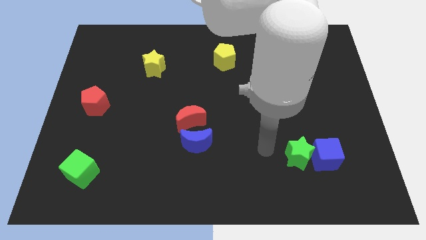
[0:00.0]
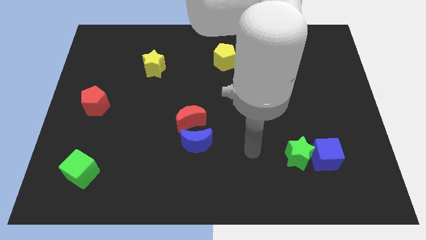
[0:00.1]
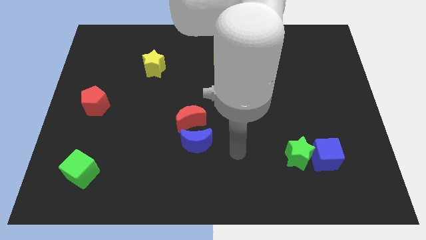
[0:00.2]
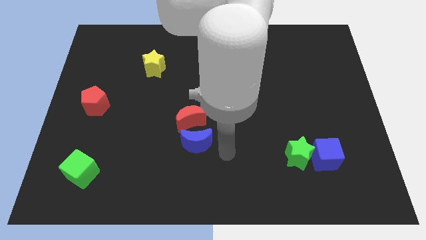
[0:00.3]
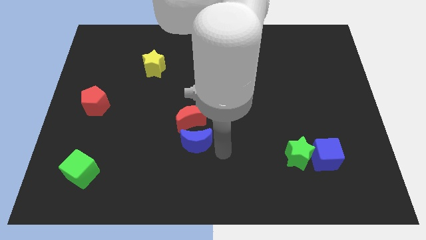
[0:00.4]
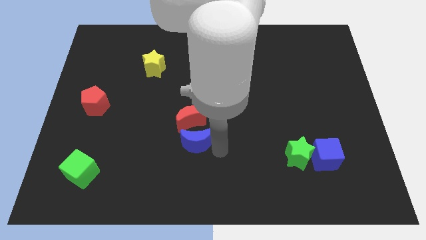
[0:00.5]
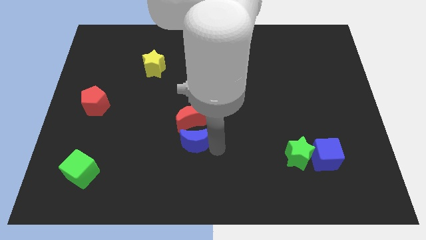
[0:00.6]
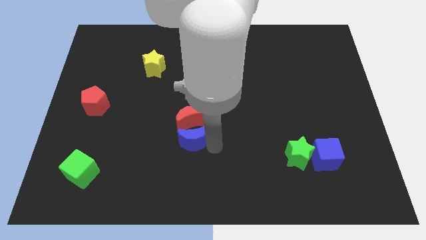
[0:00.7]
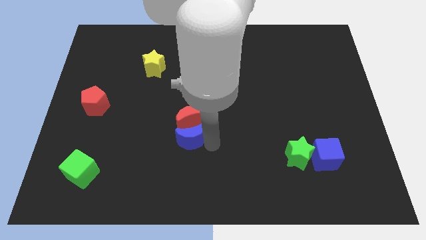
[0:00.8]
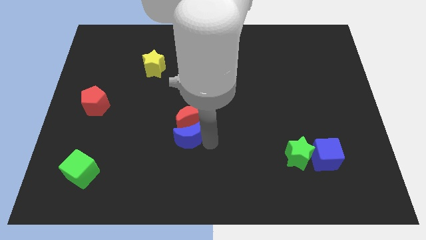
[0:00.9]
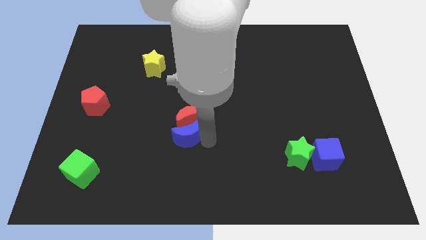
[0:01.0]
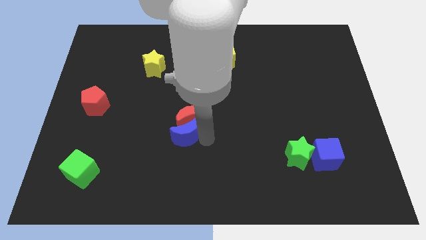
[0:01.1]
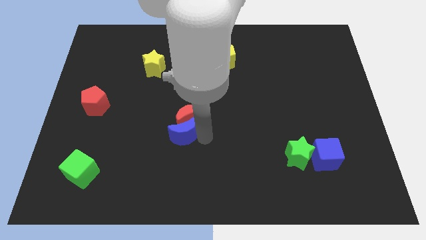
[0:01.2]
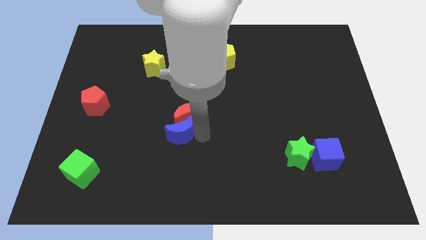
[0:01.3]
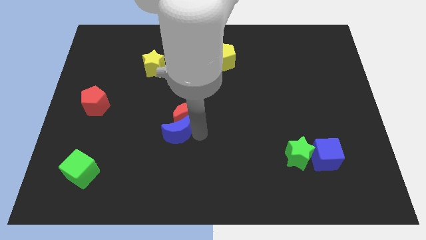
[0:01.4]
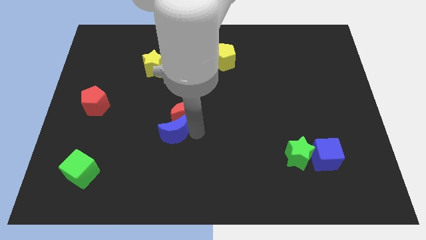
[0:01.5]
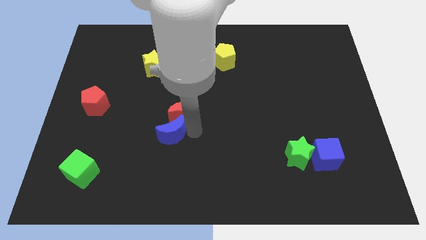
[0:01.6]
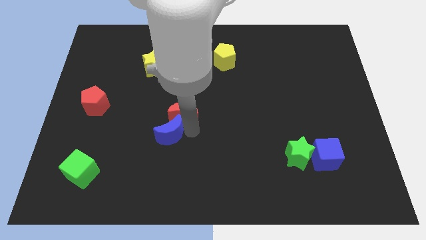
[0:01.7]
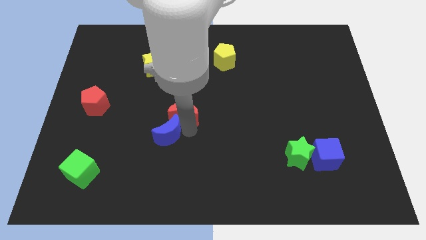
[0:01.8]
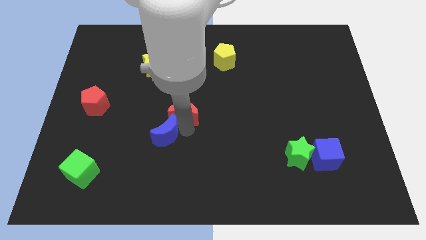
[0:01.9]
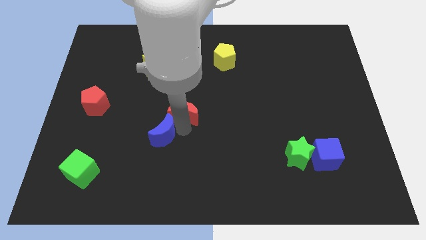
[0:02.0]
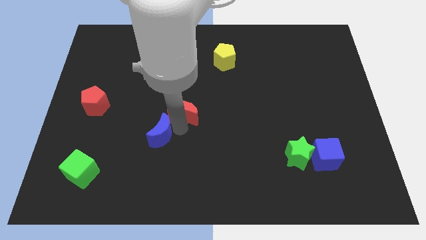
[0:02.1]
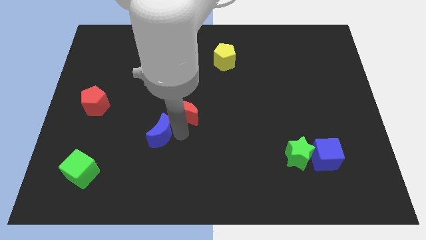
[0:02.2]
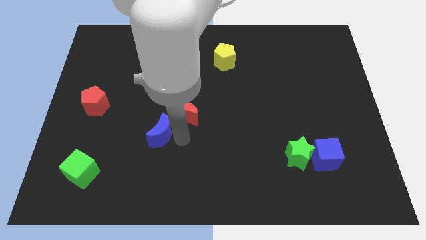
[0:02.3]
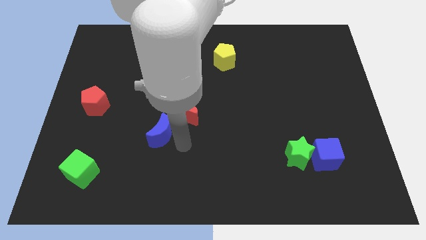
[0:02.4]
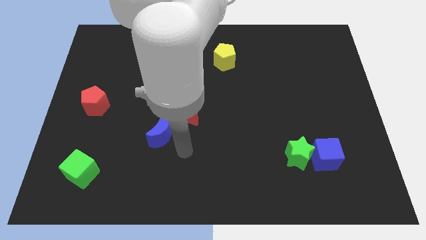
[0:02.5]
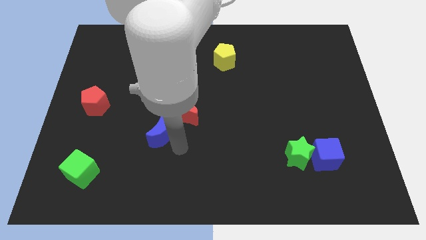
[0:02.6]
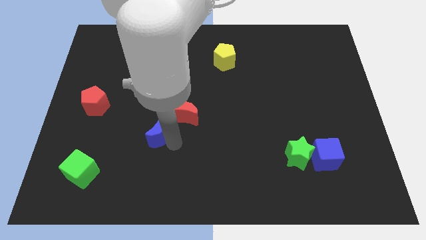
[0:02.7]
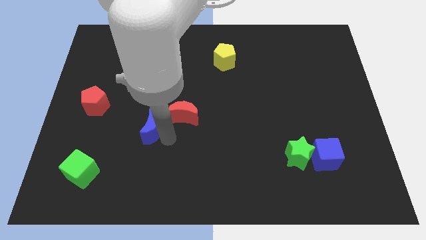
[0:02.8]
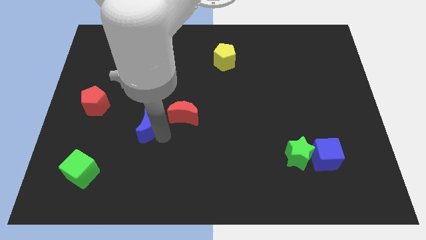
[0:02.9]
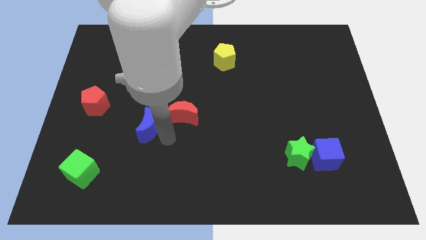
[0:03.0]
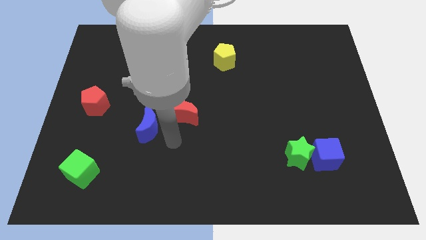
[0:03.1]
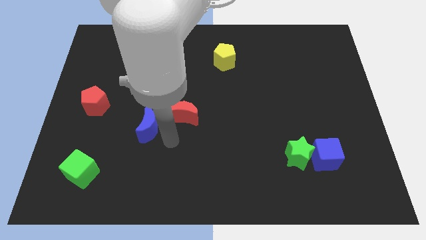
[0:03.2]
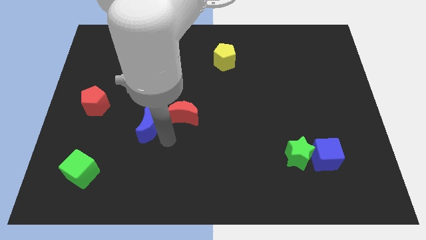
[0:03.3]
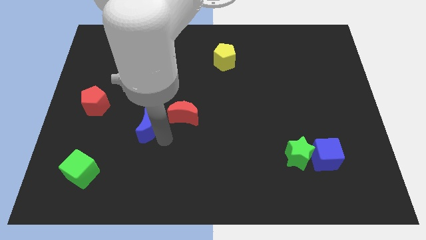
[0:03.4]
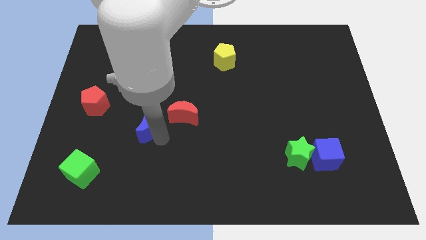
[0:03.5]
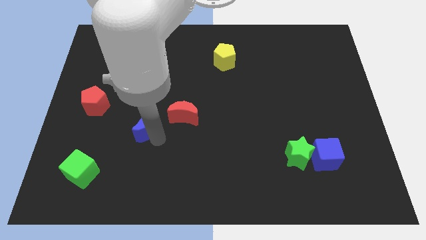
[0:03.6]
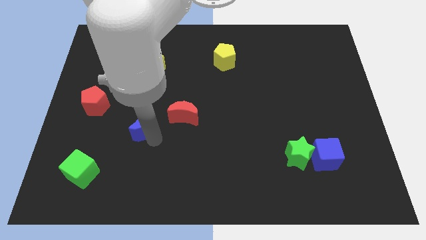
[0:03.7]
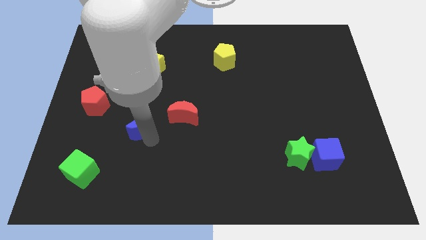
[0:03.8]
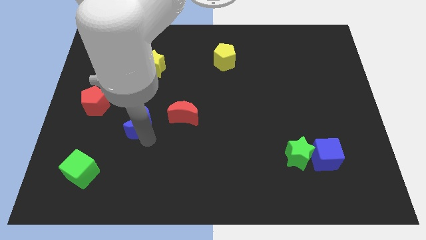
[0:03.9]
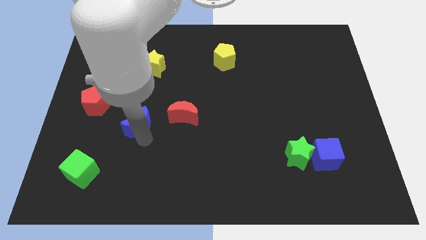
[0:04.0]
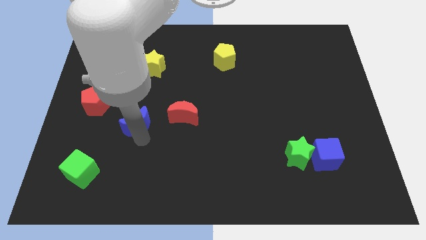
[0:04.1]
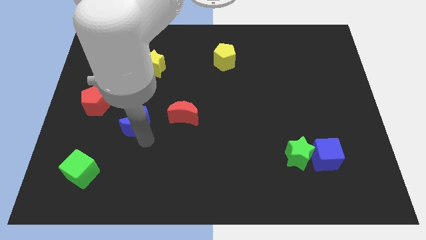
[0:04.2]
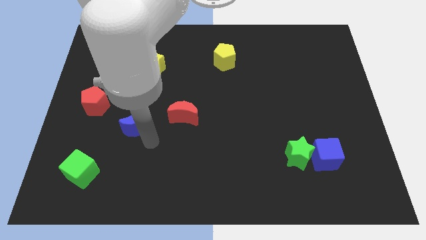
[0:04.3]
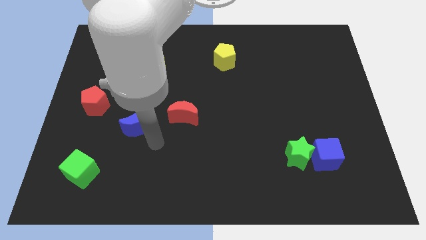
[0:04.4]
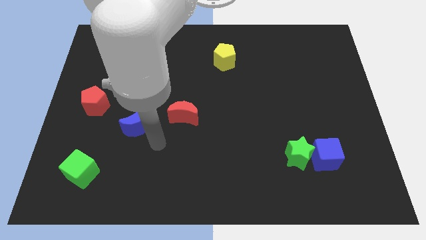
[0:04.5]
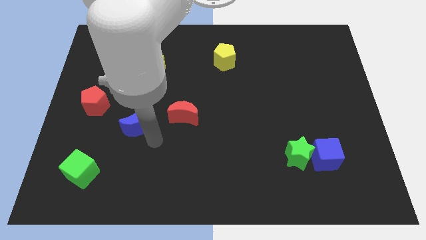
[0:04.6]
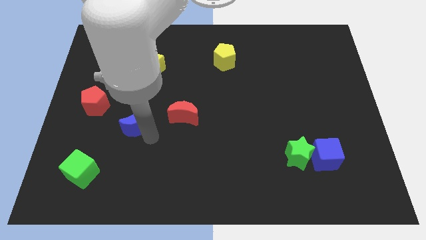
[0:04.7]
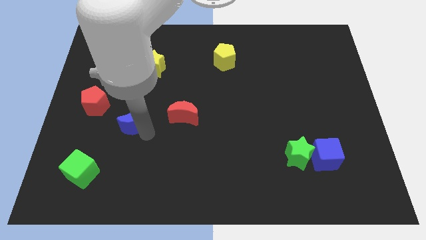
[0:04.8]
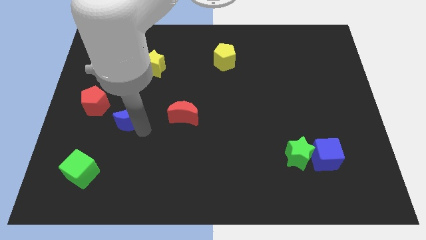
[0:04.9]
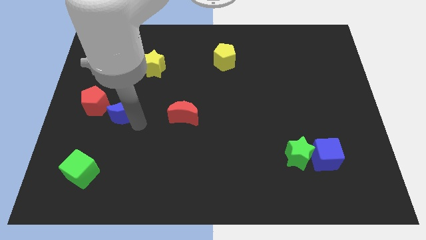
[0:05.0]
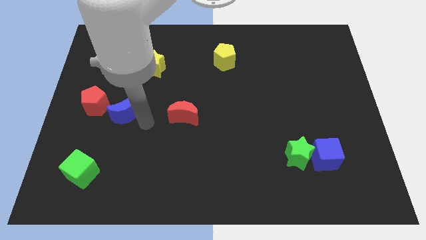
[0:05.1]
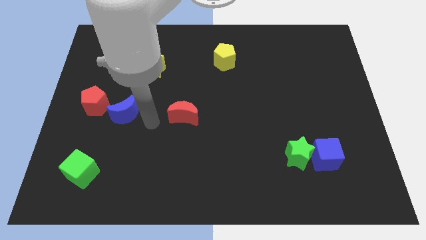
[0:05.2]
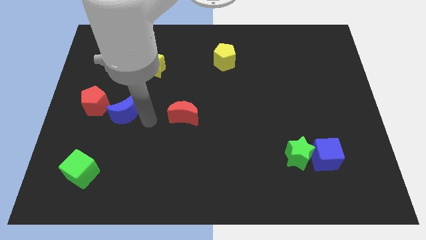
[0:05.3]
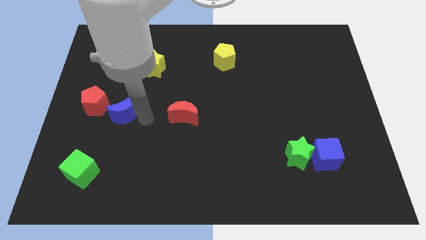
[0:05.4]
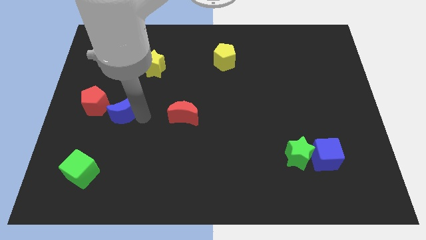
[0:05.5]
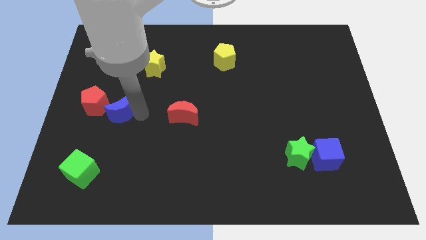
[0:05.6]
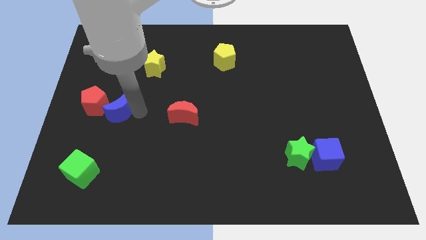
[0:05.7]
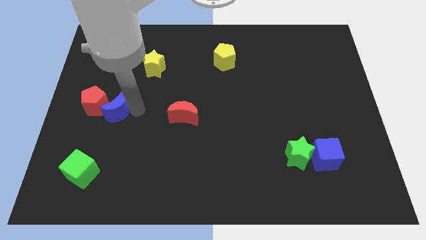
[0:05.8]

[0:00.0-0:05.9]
put the blue moon close to the red pentagon

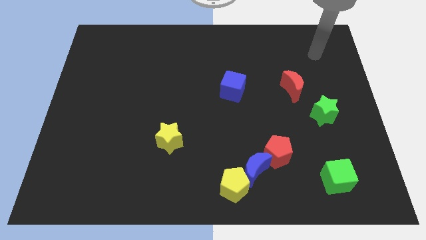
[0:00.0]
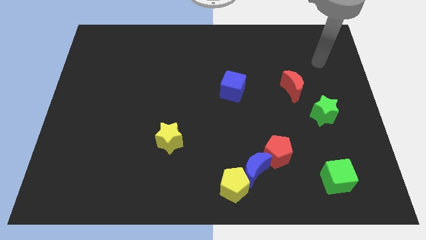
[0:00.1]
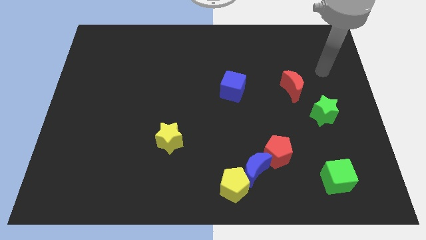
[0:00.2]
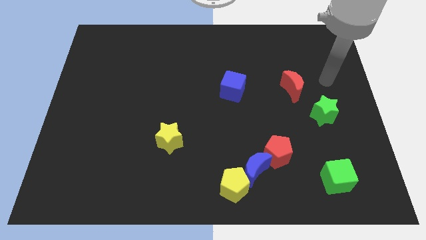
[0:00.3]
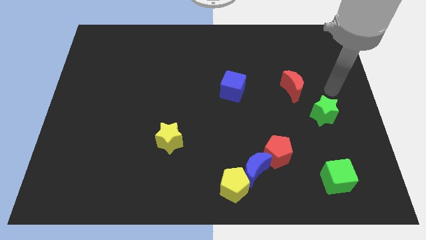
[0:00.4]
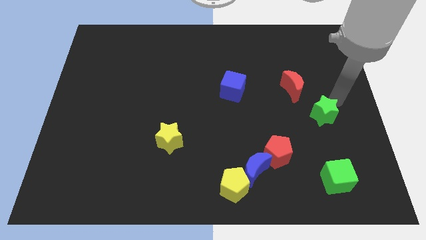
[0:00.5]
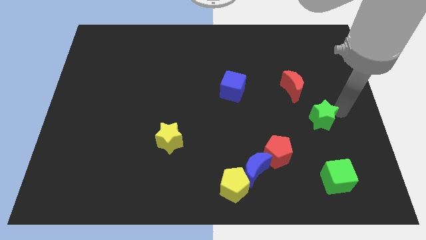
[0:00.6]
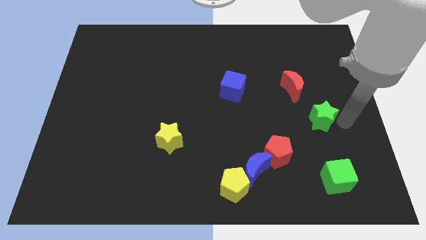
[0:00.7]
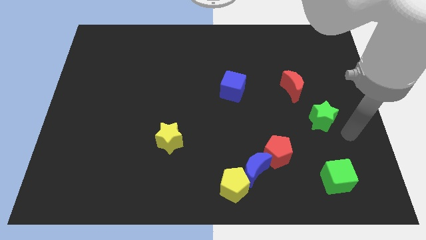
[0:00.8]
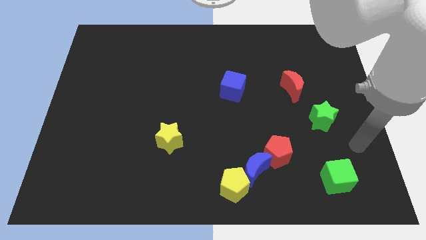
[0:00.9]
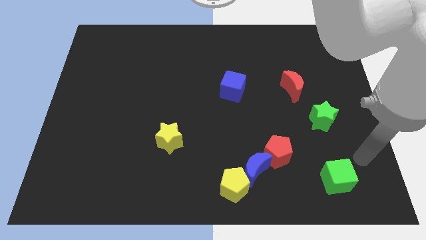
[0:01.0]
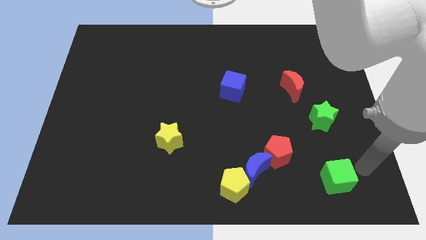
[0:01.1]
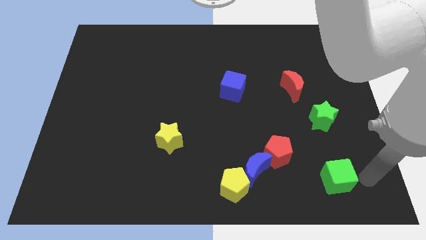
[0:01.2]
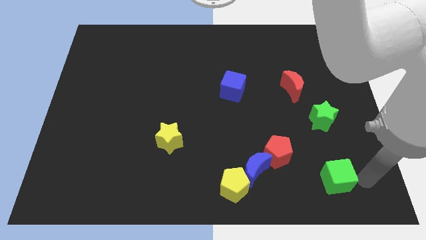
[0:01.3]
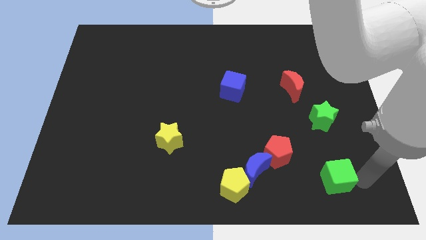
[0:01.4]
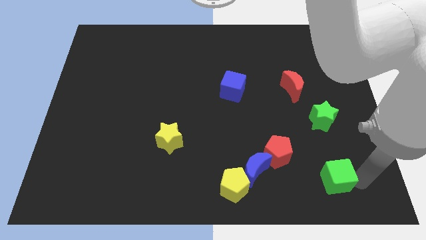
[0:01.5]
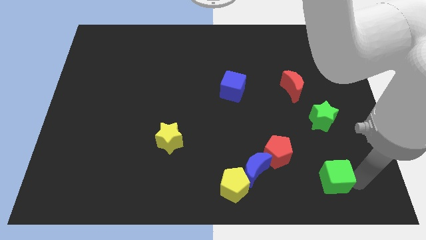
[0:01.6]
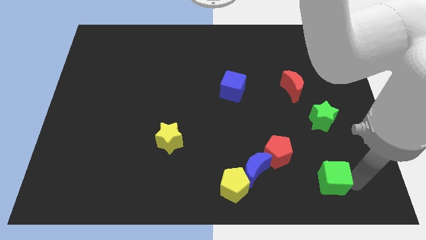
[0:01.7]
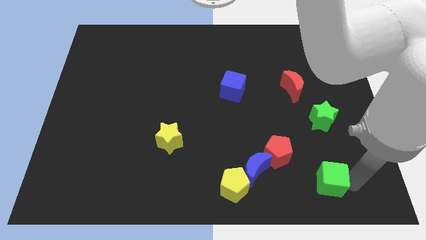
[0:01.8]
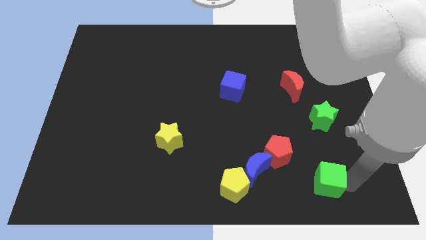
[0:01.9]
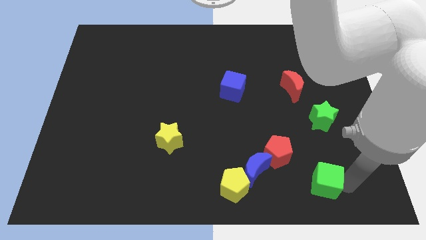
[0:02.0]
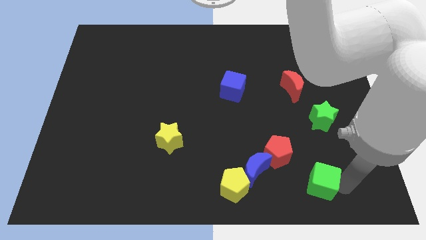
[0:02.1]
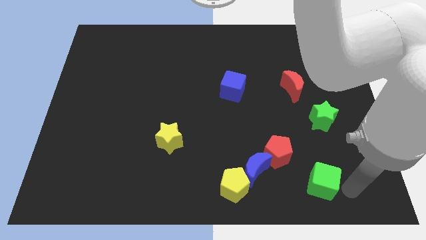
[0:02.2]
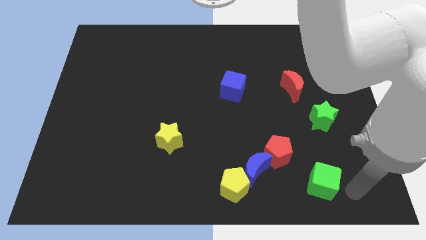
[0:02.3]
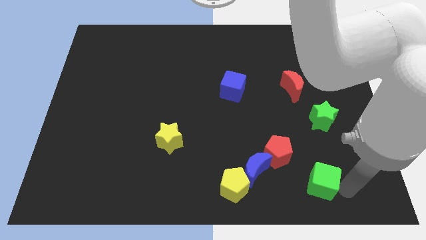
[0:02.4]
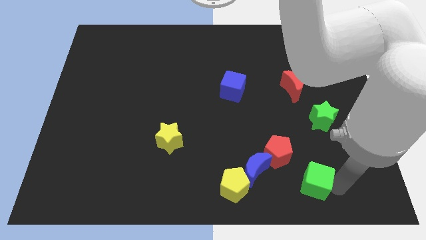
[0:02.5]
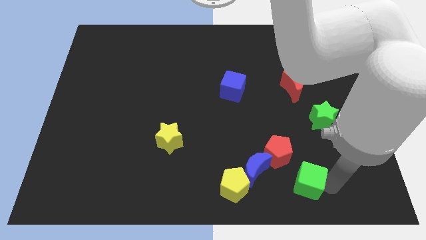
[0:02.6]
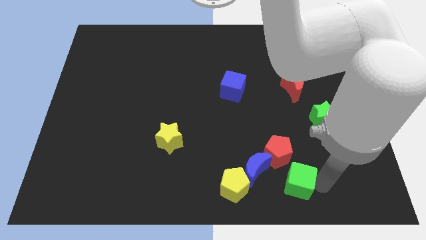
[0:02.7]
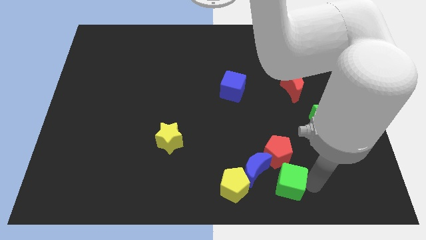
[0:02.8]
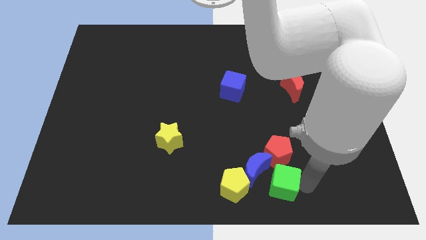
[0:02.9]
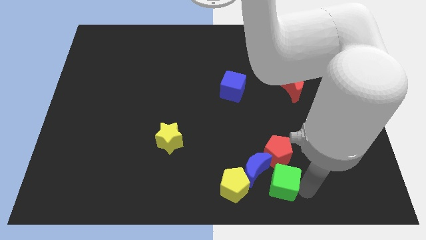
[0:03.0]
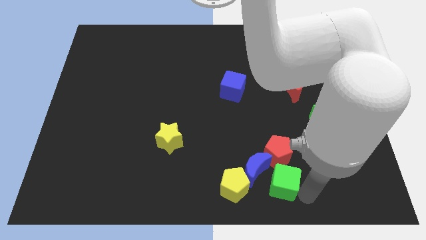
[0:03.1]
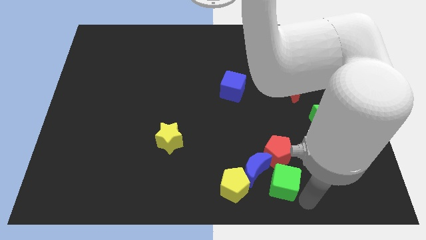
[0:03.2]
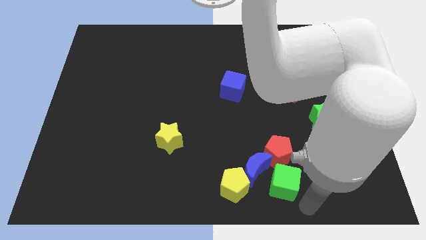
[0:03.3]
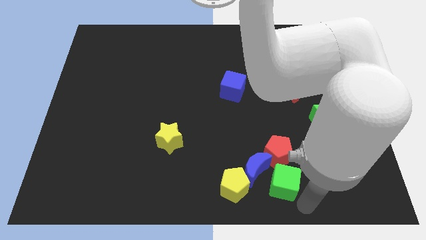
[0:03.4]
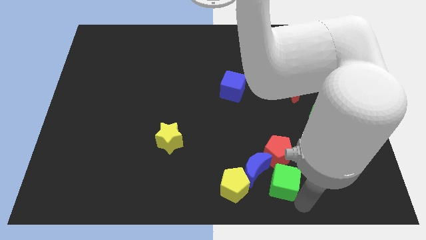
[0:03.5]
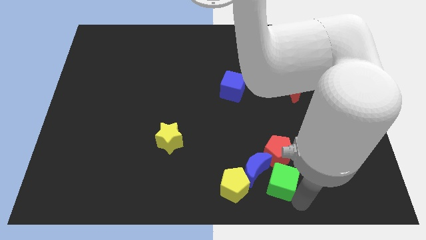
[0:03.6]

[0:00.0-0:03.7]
move the green cube next to the blue moon
